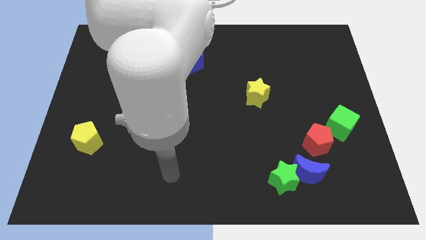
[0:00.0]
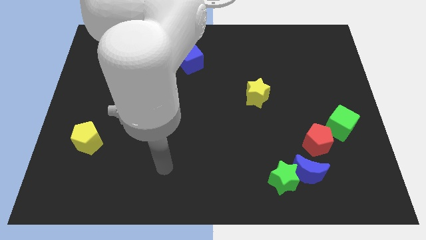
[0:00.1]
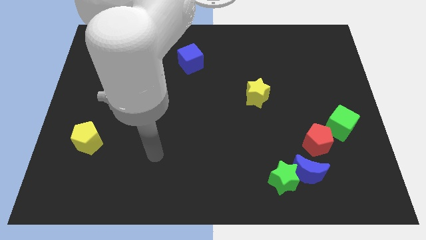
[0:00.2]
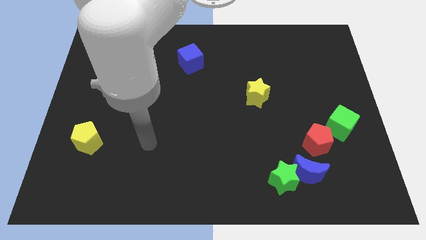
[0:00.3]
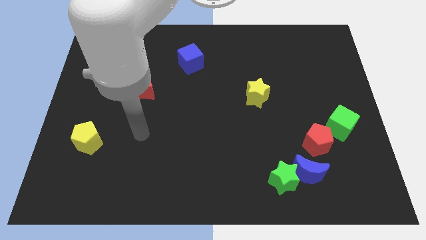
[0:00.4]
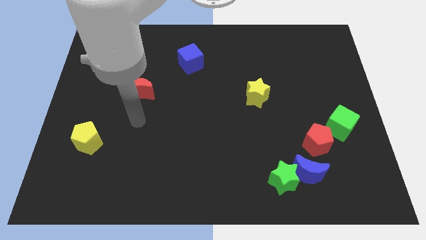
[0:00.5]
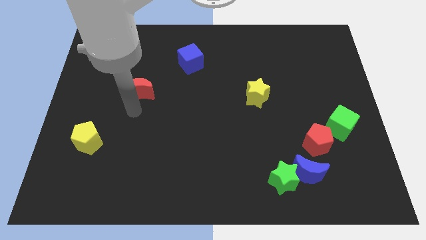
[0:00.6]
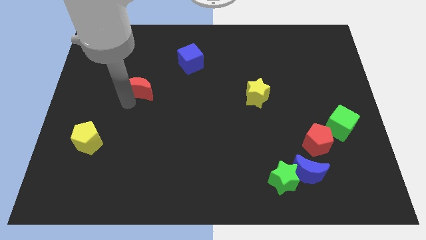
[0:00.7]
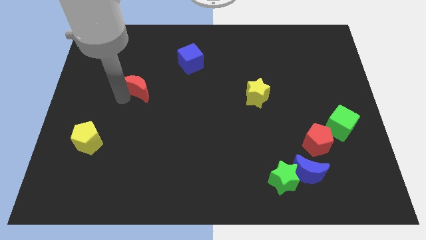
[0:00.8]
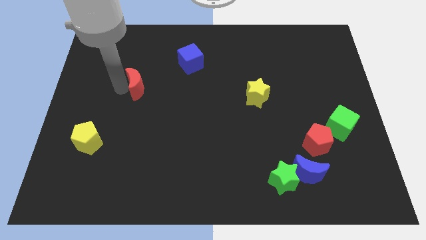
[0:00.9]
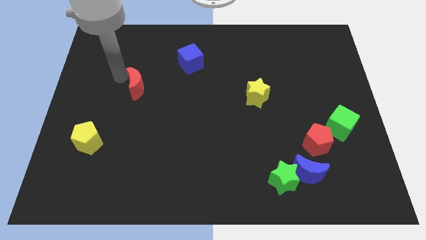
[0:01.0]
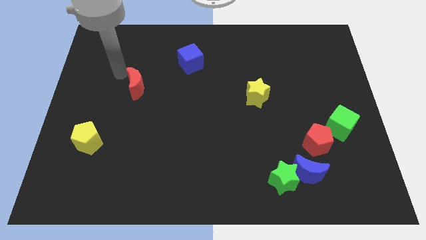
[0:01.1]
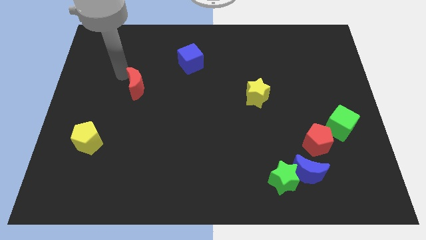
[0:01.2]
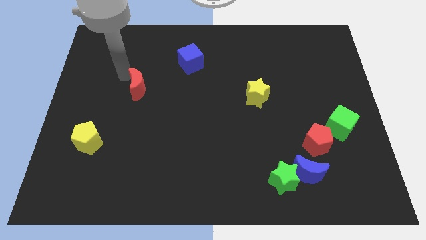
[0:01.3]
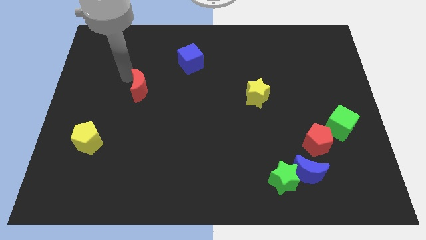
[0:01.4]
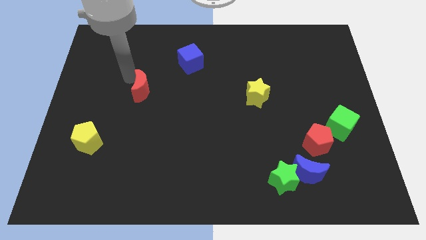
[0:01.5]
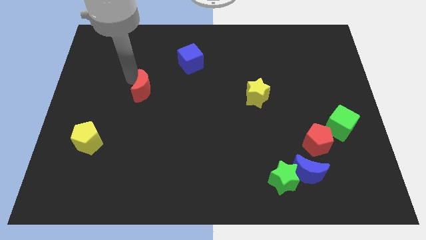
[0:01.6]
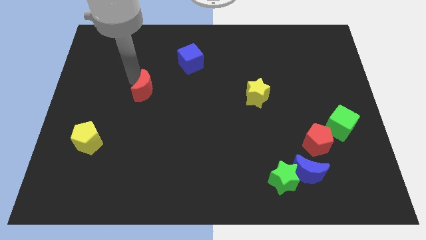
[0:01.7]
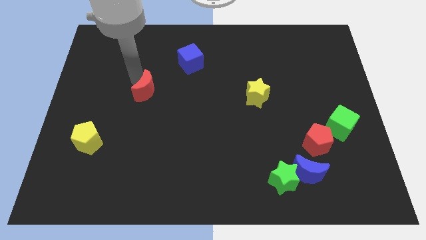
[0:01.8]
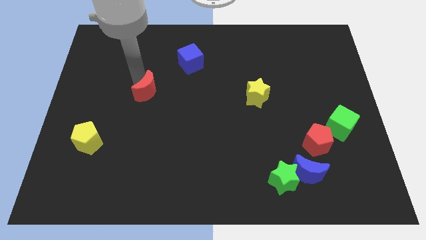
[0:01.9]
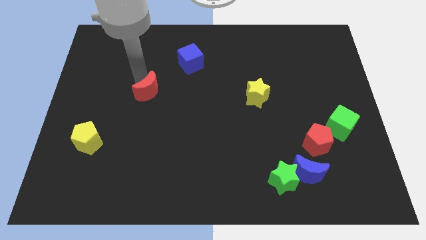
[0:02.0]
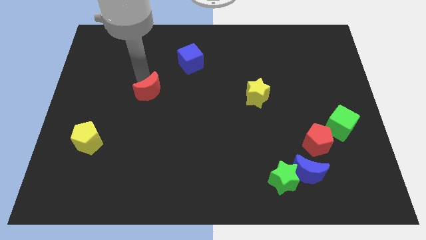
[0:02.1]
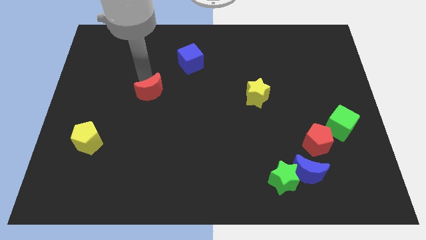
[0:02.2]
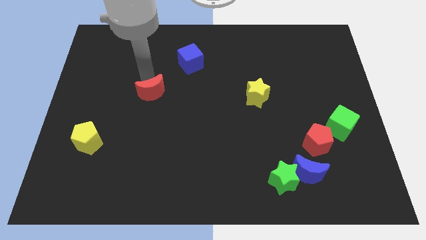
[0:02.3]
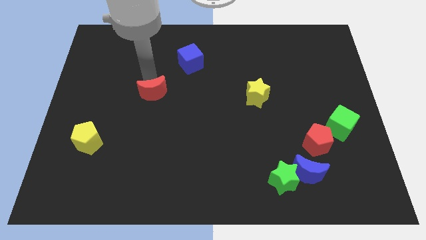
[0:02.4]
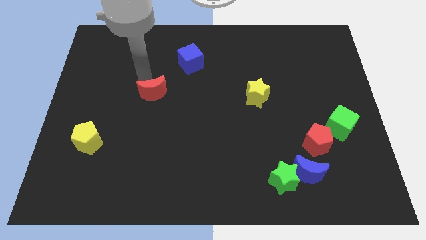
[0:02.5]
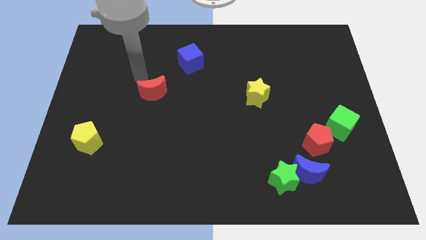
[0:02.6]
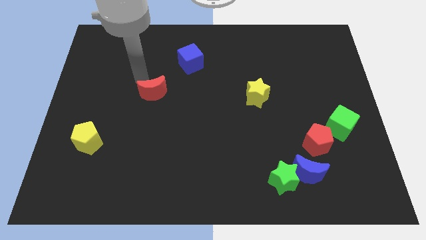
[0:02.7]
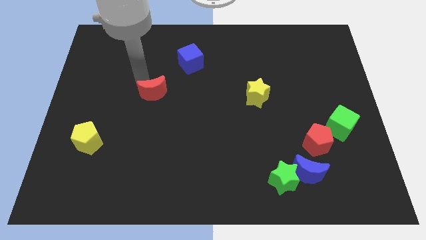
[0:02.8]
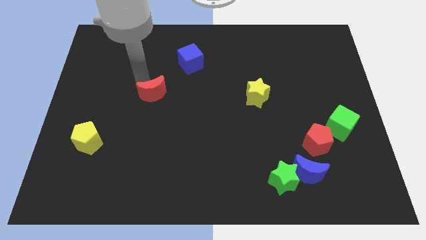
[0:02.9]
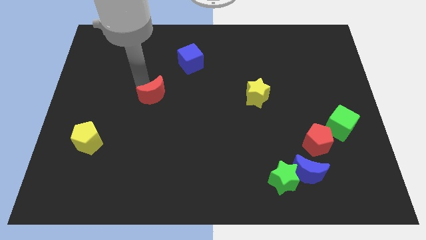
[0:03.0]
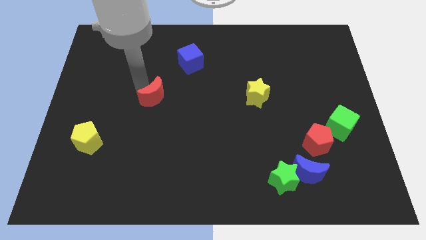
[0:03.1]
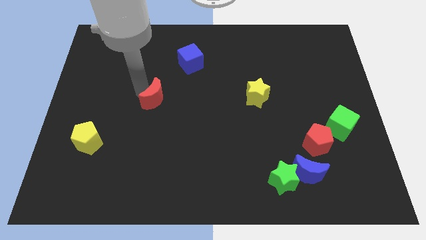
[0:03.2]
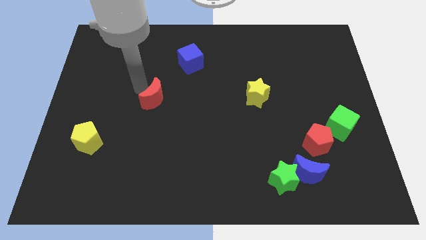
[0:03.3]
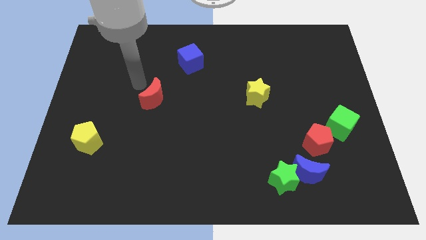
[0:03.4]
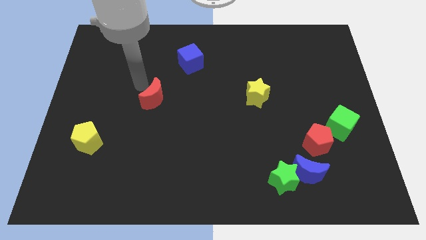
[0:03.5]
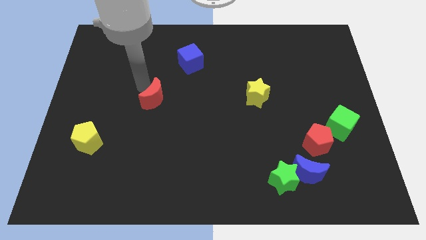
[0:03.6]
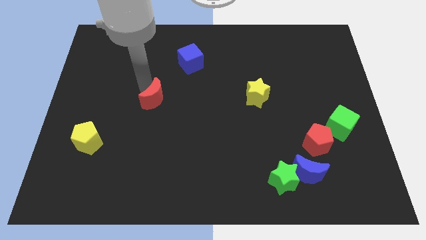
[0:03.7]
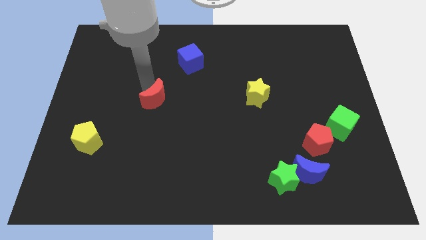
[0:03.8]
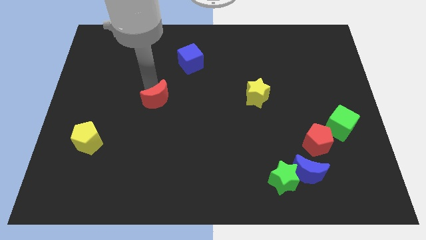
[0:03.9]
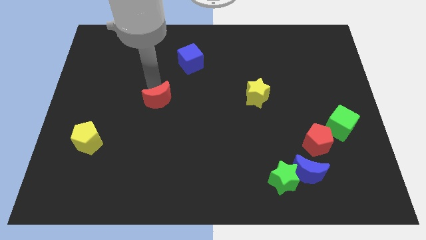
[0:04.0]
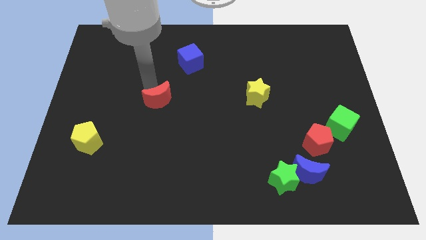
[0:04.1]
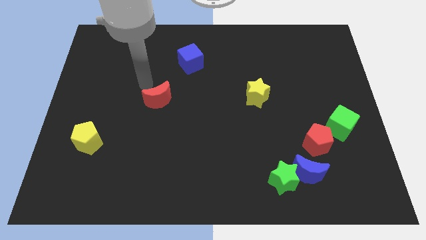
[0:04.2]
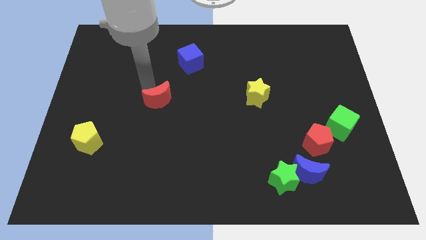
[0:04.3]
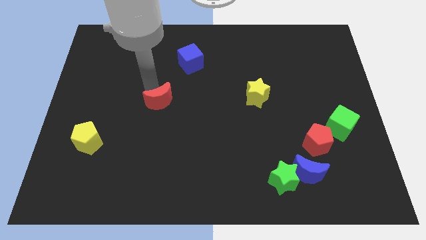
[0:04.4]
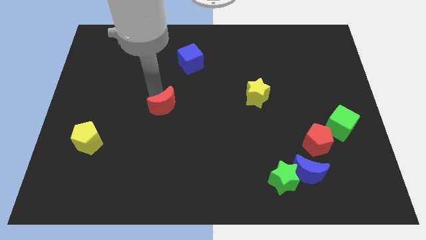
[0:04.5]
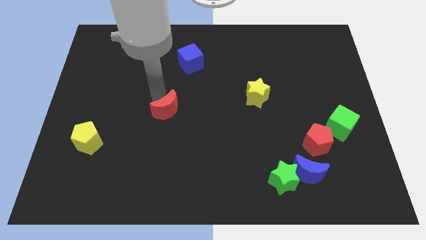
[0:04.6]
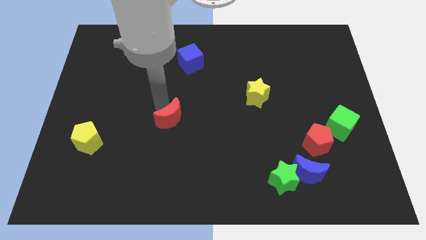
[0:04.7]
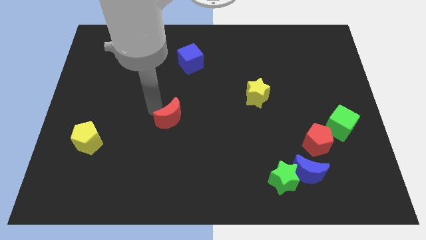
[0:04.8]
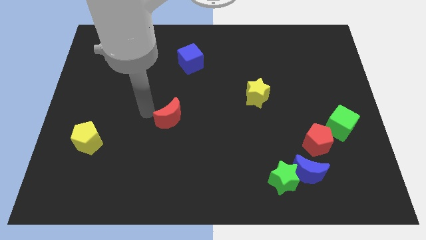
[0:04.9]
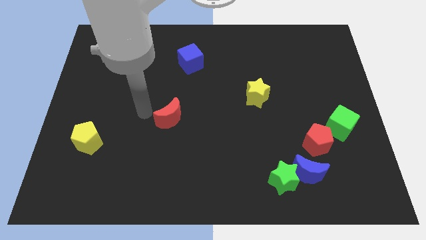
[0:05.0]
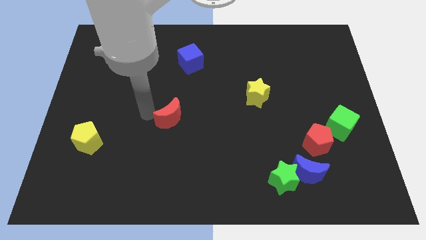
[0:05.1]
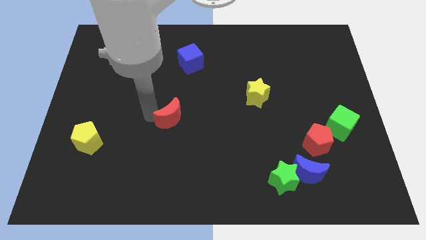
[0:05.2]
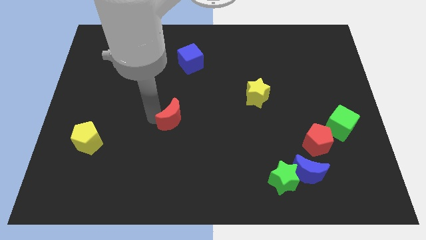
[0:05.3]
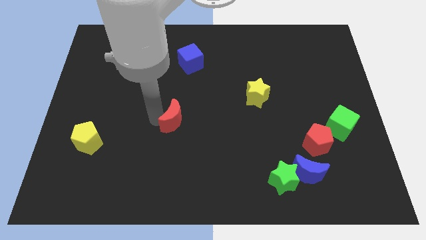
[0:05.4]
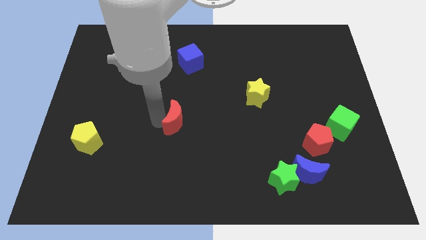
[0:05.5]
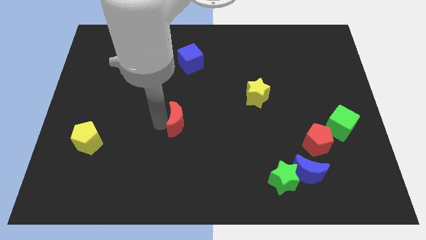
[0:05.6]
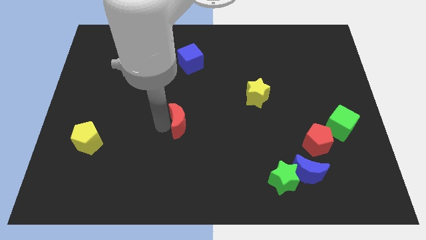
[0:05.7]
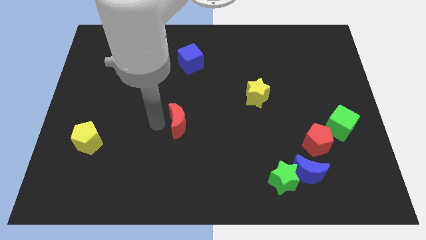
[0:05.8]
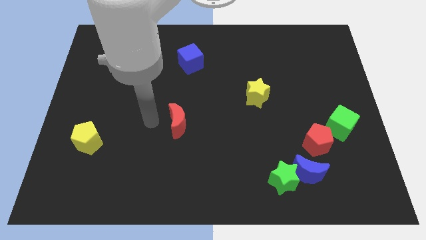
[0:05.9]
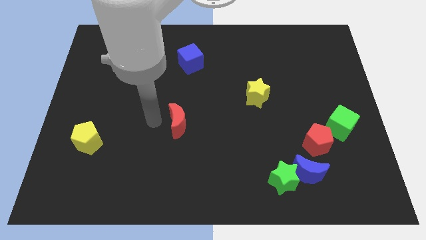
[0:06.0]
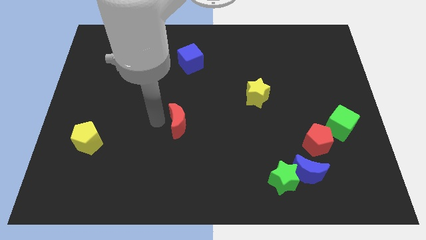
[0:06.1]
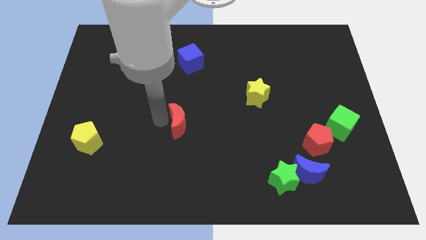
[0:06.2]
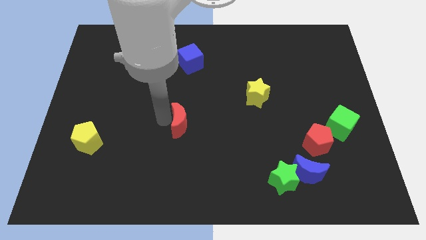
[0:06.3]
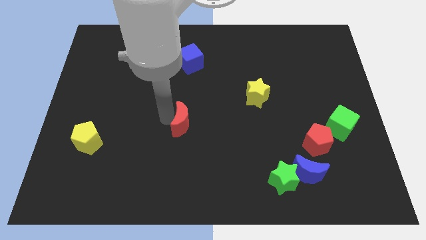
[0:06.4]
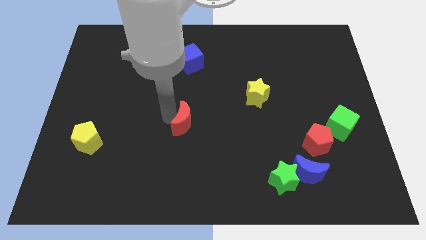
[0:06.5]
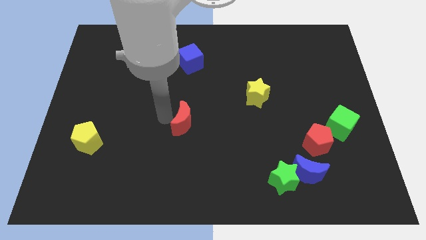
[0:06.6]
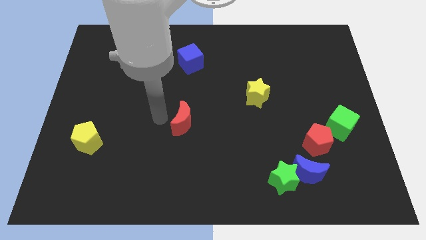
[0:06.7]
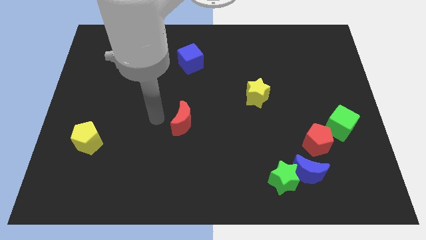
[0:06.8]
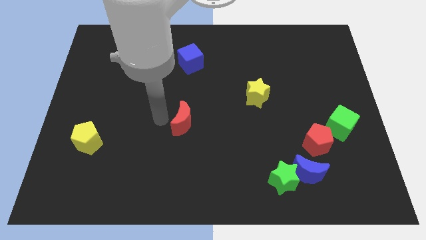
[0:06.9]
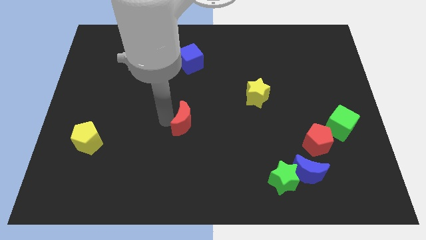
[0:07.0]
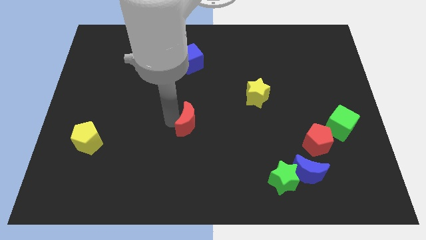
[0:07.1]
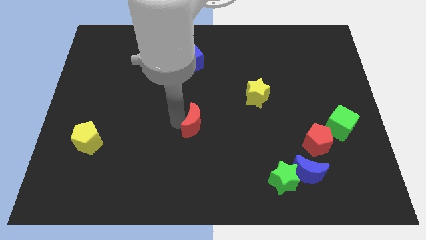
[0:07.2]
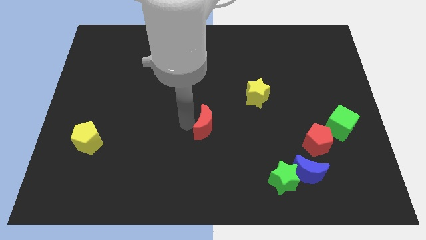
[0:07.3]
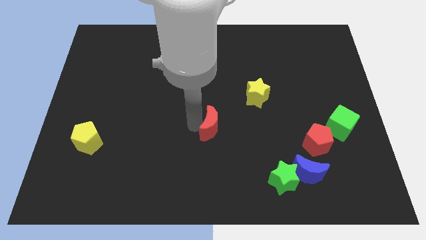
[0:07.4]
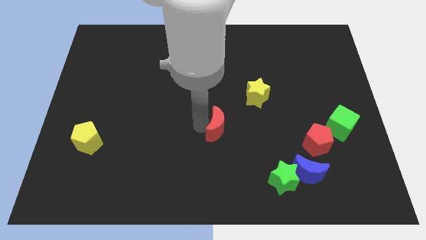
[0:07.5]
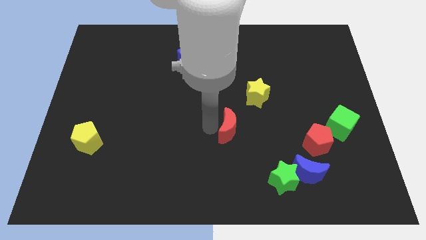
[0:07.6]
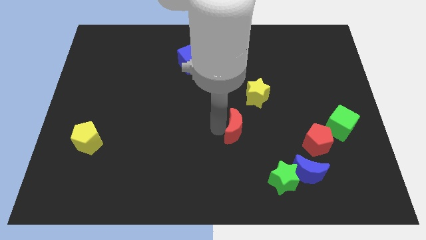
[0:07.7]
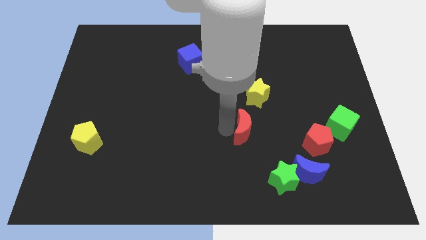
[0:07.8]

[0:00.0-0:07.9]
put the red moon to the bottom of the yellow star
